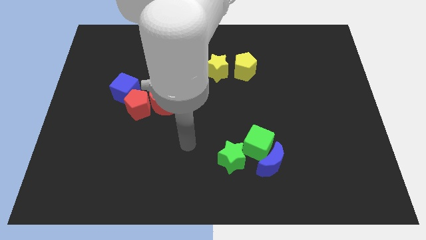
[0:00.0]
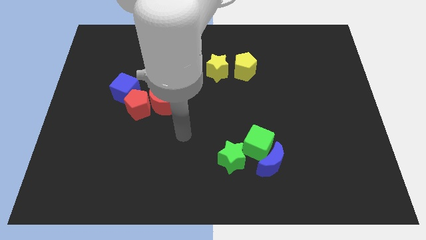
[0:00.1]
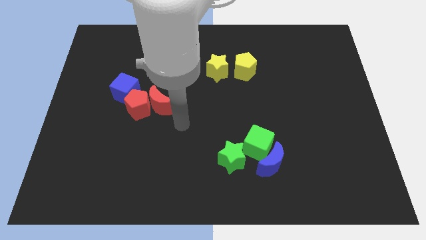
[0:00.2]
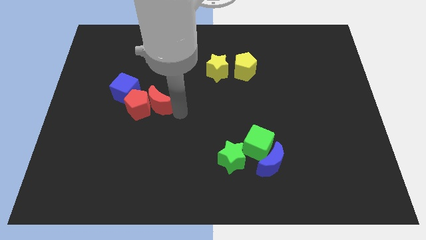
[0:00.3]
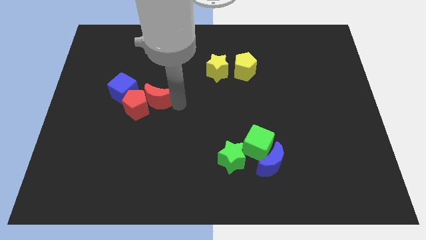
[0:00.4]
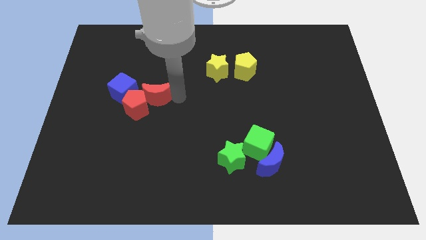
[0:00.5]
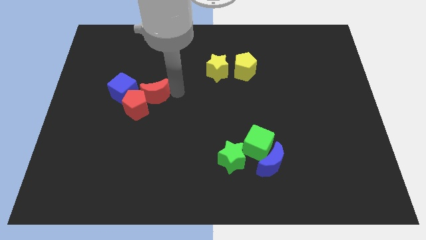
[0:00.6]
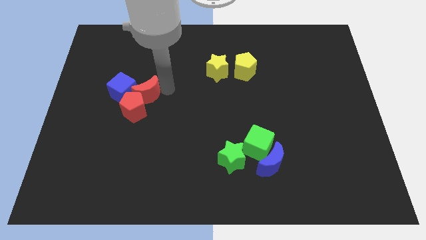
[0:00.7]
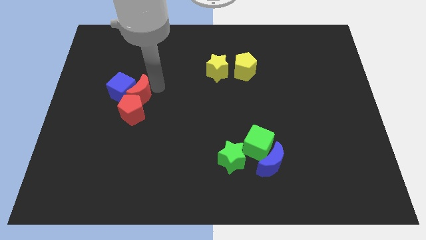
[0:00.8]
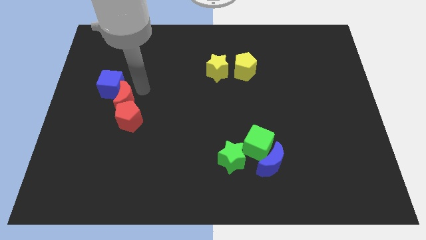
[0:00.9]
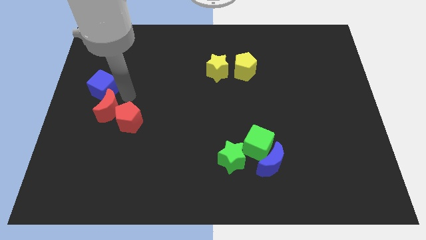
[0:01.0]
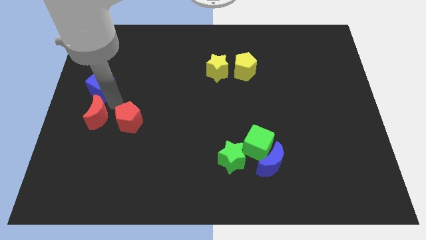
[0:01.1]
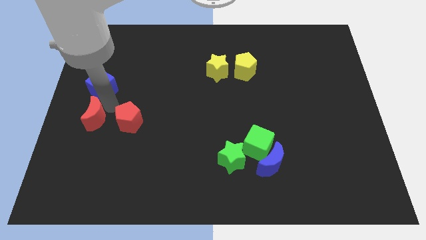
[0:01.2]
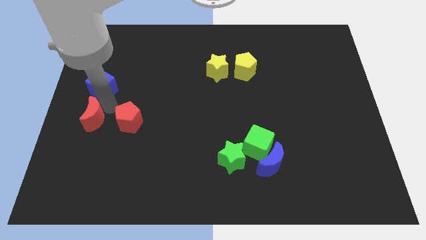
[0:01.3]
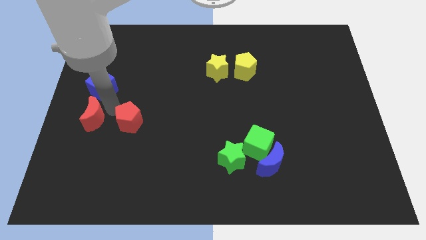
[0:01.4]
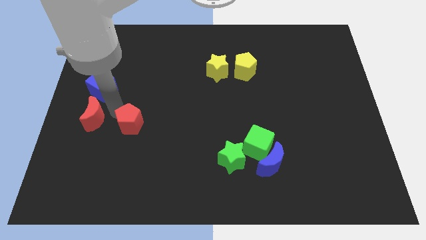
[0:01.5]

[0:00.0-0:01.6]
move the red pentagon away from the red moon and blue cube

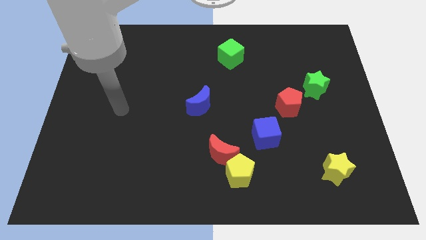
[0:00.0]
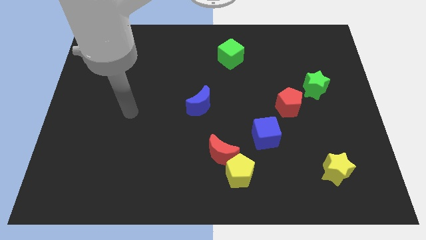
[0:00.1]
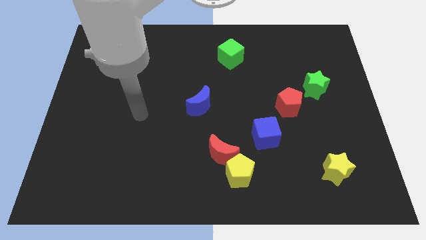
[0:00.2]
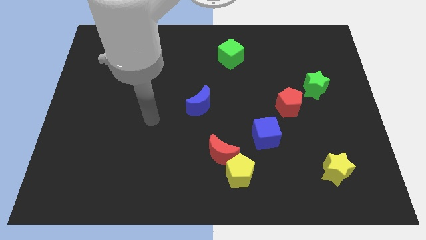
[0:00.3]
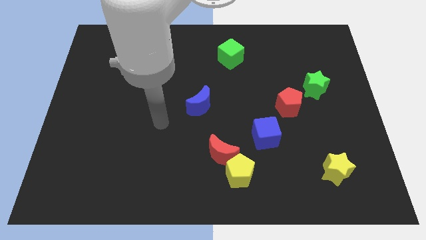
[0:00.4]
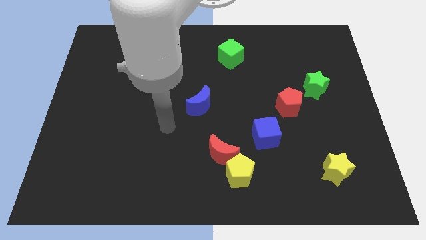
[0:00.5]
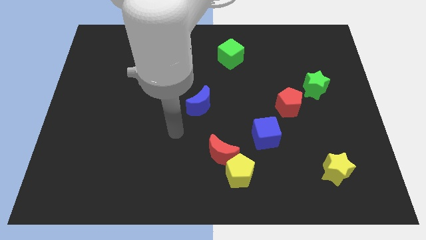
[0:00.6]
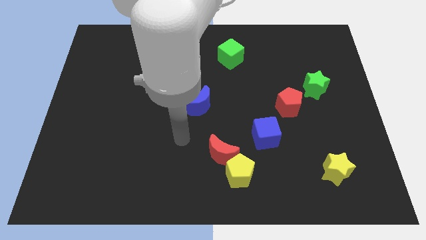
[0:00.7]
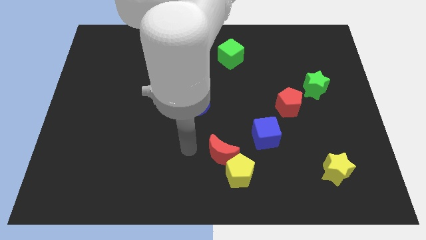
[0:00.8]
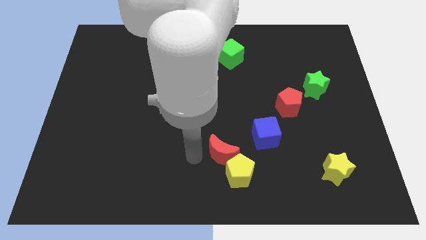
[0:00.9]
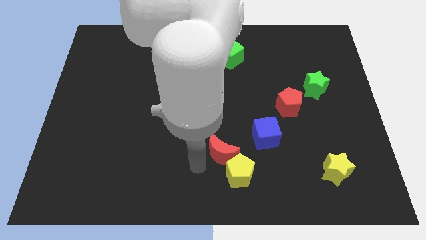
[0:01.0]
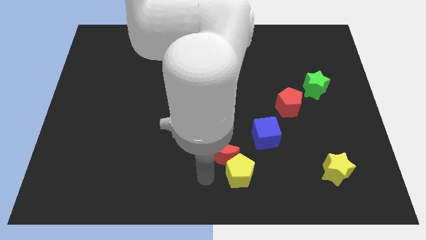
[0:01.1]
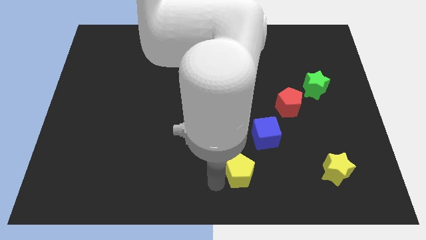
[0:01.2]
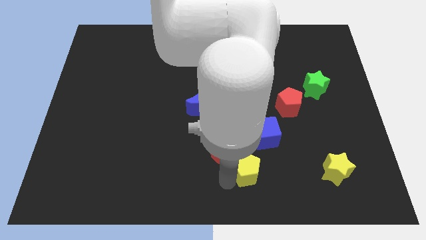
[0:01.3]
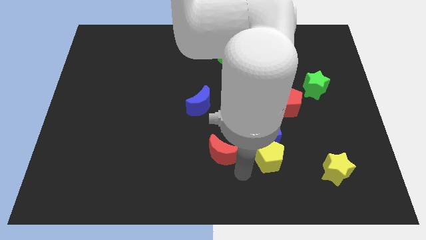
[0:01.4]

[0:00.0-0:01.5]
move the red moon away from the yellow pentagon

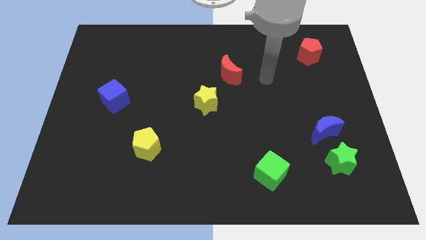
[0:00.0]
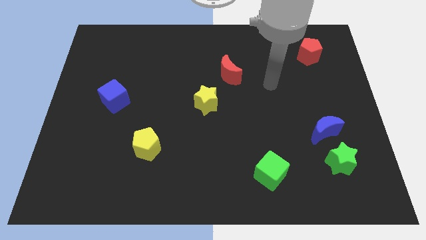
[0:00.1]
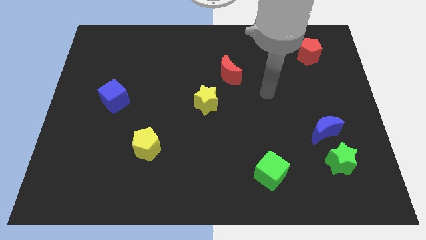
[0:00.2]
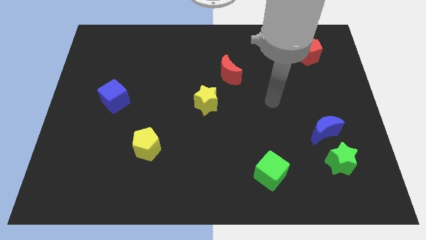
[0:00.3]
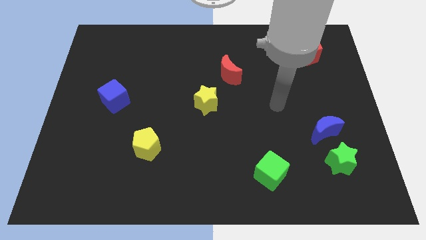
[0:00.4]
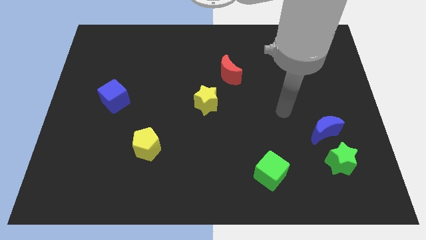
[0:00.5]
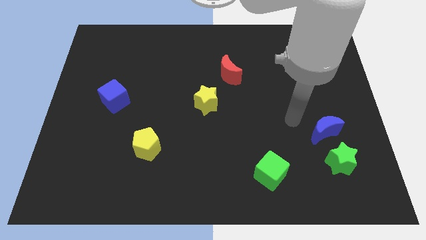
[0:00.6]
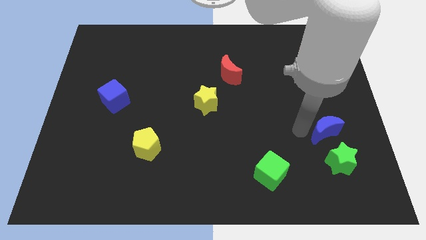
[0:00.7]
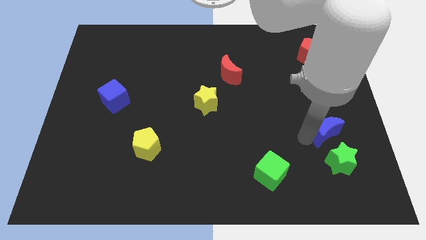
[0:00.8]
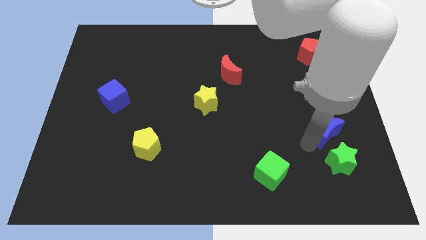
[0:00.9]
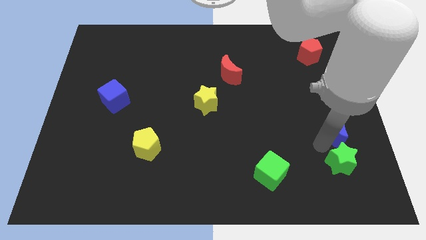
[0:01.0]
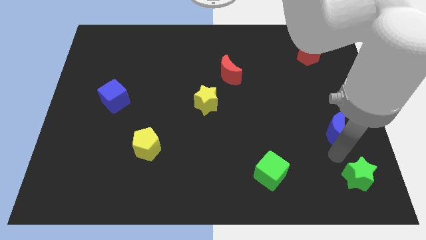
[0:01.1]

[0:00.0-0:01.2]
move the blue moon away from the green star

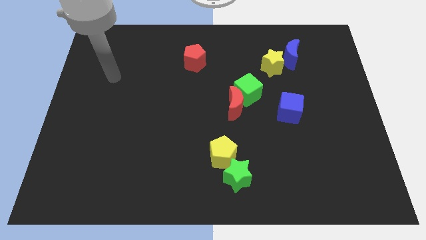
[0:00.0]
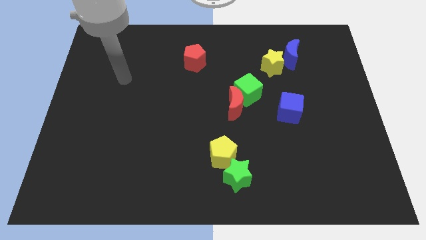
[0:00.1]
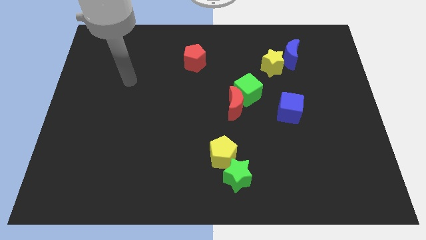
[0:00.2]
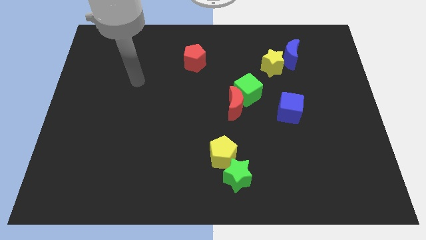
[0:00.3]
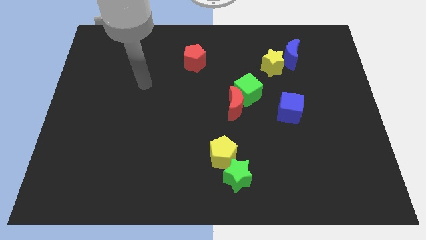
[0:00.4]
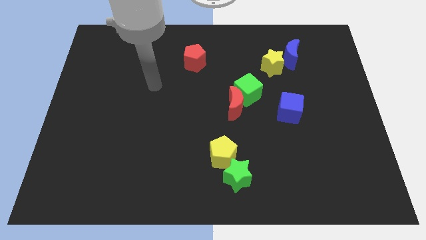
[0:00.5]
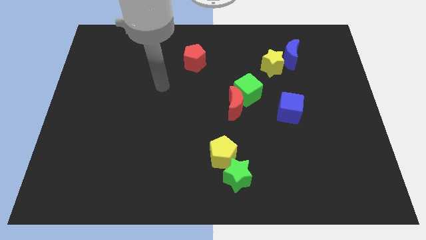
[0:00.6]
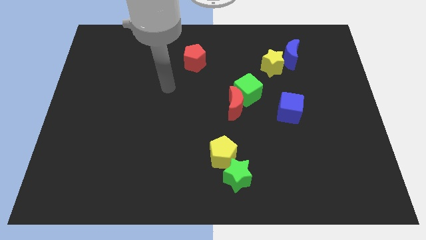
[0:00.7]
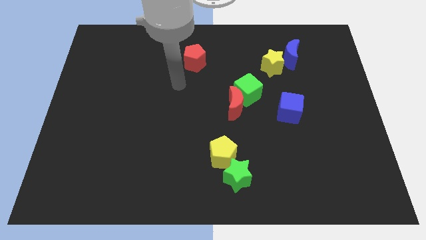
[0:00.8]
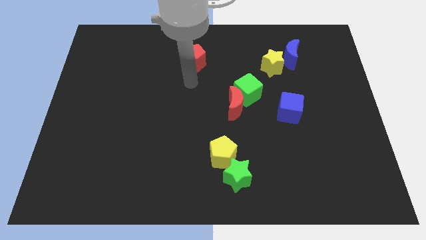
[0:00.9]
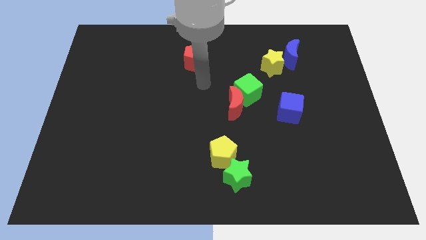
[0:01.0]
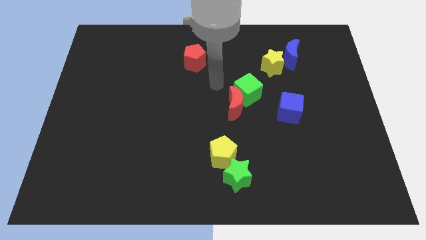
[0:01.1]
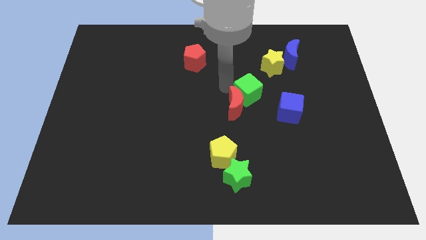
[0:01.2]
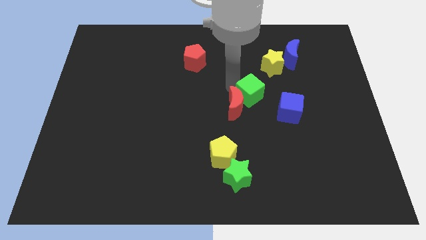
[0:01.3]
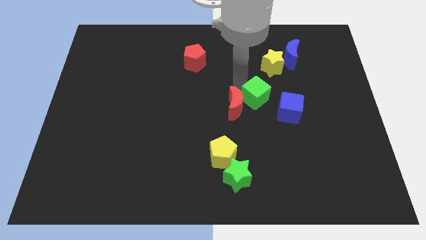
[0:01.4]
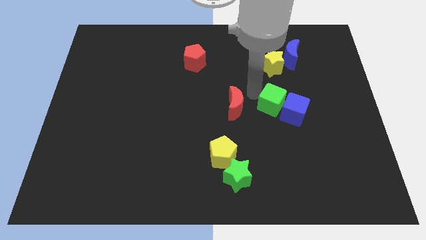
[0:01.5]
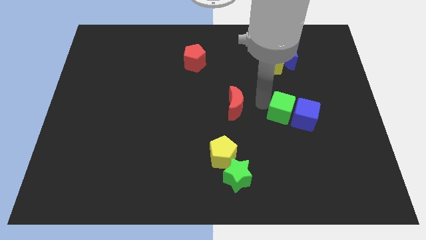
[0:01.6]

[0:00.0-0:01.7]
move the red moon away from the green cube

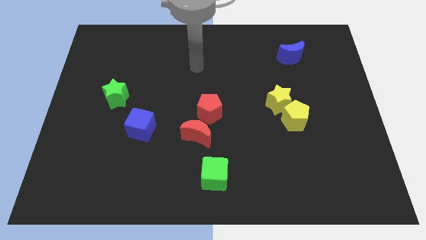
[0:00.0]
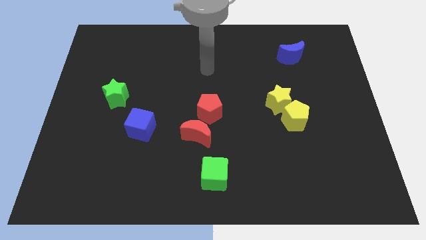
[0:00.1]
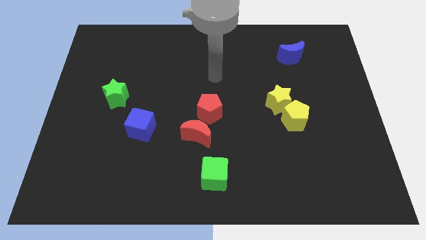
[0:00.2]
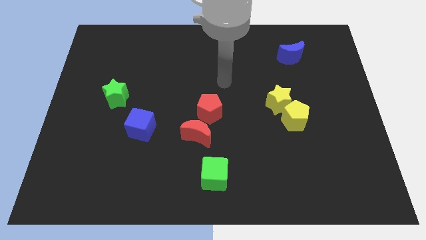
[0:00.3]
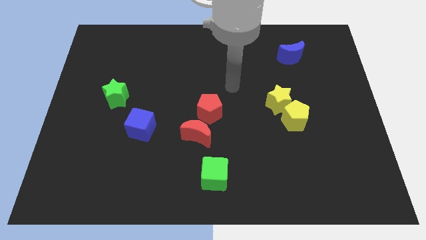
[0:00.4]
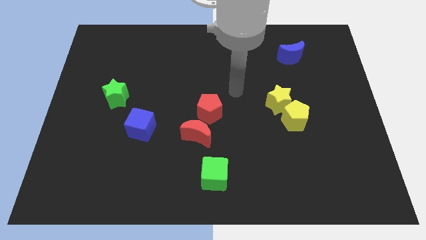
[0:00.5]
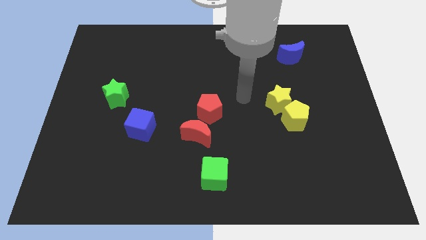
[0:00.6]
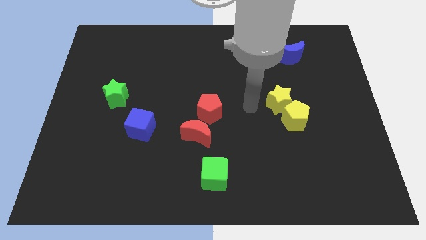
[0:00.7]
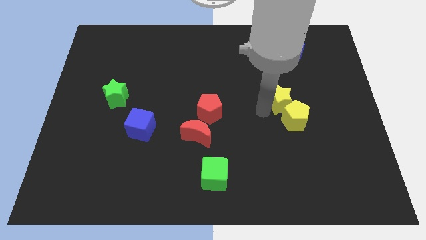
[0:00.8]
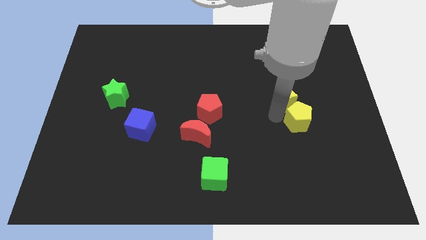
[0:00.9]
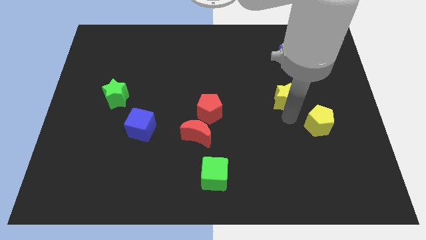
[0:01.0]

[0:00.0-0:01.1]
pull the yellow star apart from the yellow pentagon

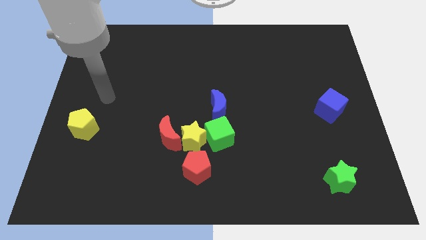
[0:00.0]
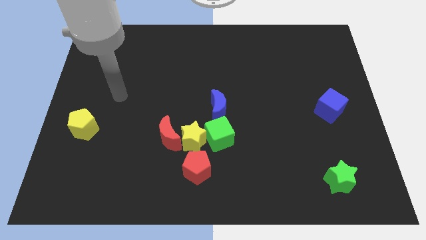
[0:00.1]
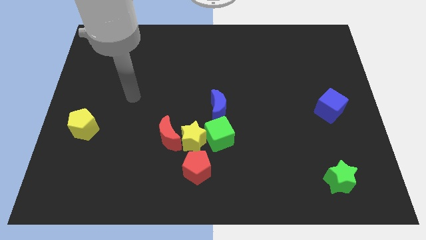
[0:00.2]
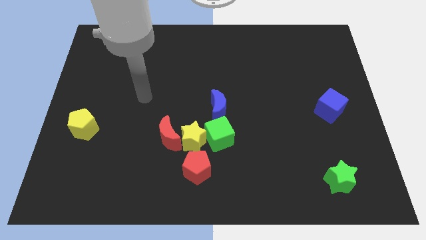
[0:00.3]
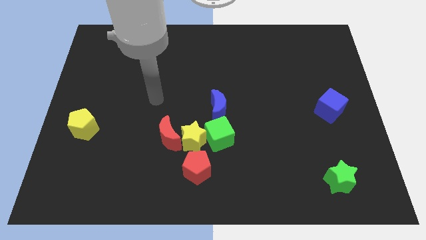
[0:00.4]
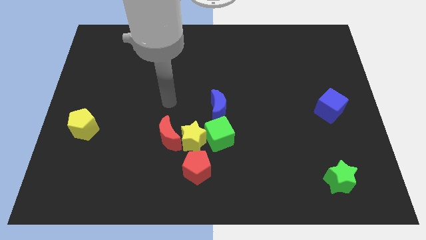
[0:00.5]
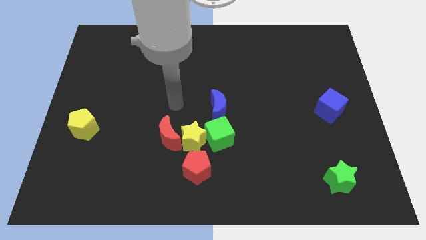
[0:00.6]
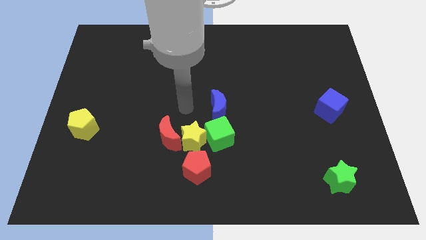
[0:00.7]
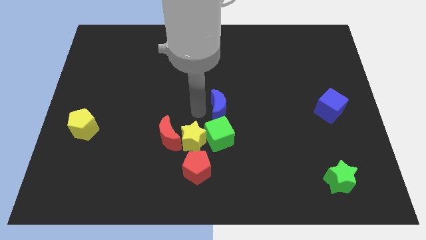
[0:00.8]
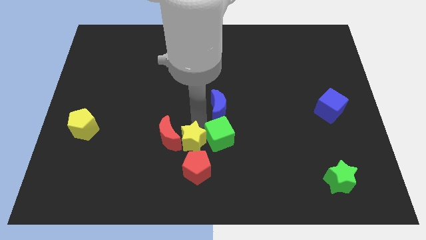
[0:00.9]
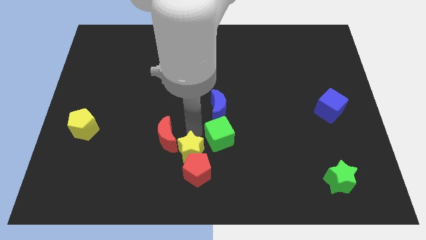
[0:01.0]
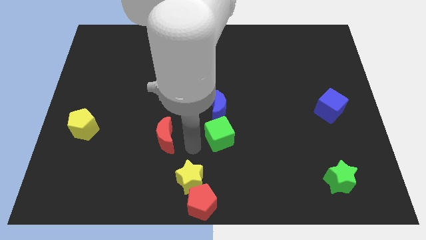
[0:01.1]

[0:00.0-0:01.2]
move the red moon away from the yellow star

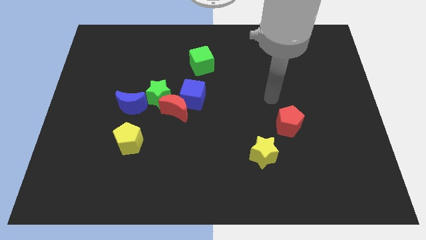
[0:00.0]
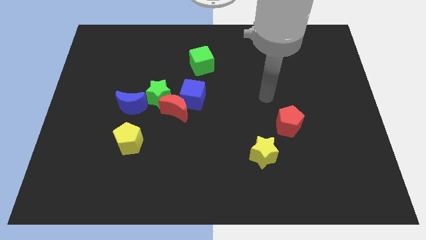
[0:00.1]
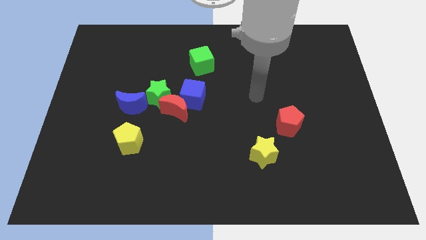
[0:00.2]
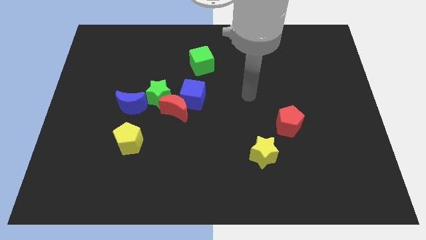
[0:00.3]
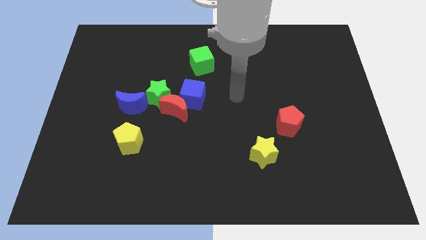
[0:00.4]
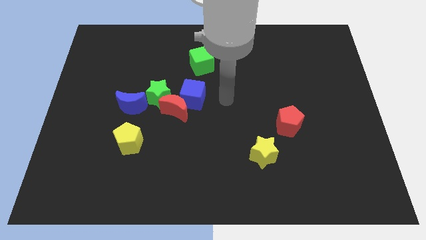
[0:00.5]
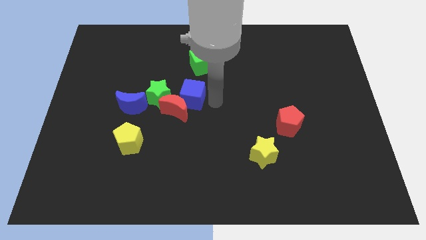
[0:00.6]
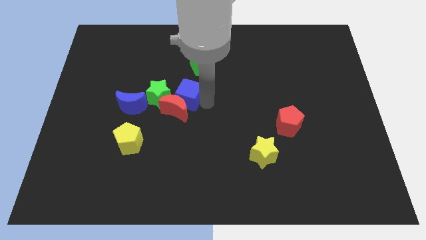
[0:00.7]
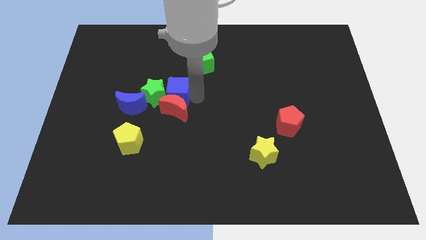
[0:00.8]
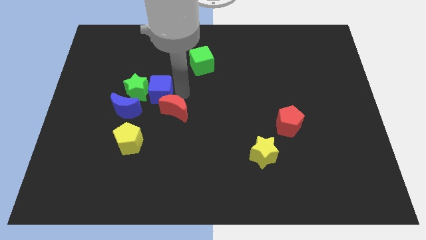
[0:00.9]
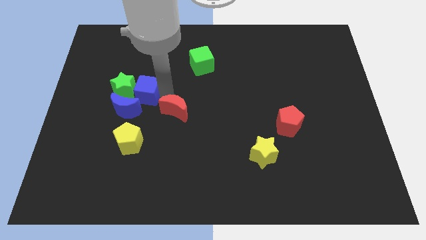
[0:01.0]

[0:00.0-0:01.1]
move the red moon away from the blue cube and green star
